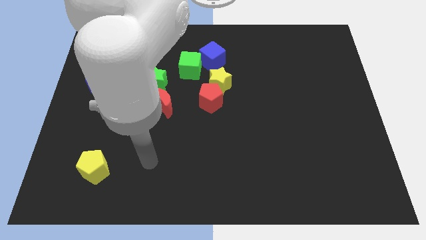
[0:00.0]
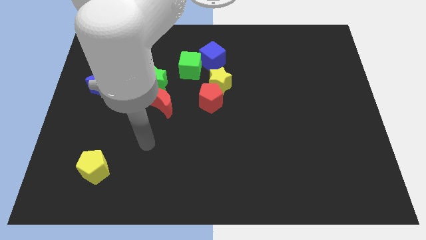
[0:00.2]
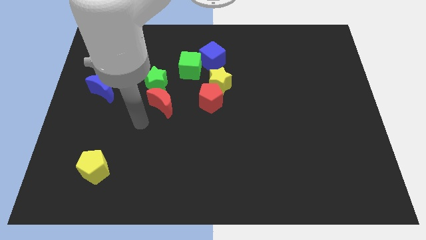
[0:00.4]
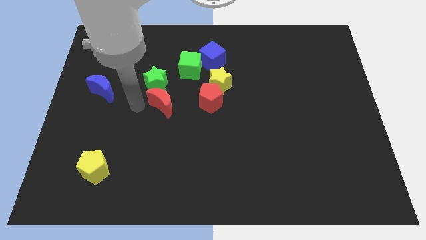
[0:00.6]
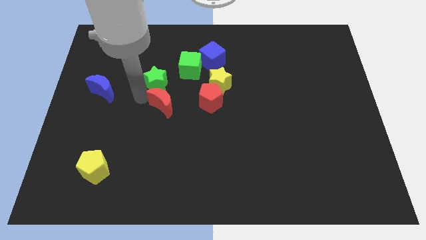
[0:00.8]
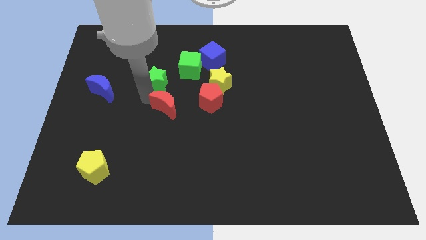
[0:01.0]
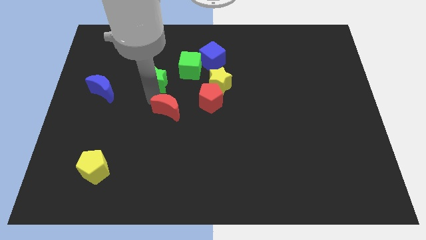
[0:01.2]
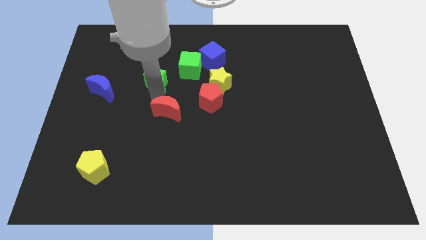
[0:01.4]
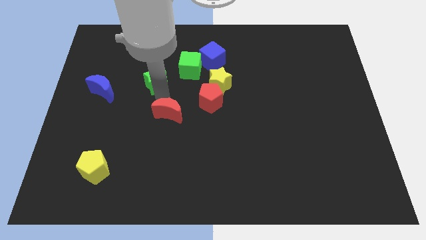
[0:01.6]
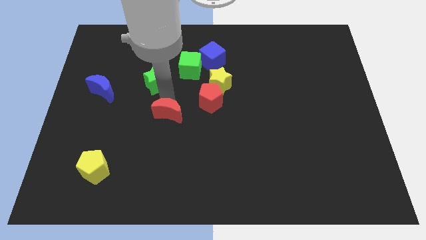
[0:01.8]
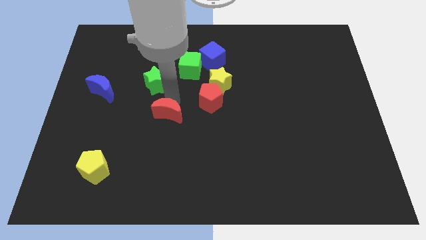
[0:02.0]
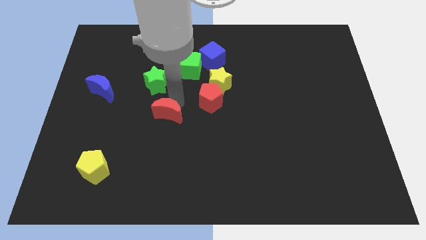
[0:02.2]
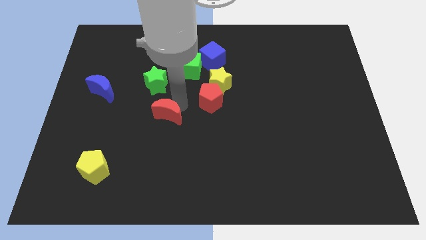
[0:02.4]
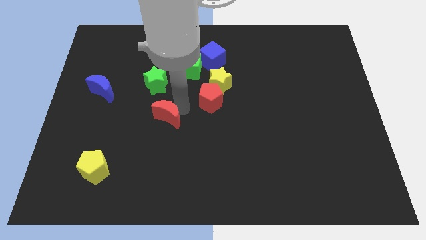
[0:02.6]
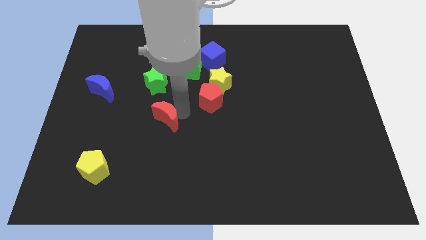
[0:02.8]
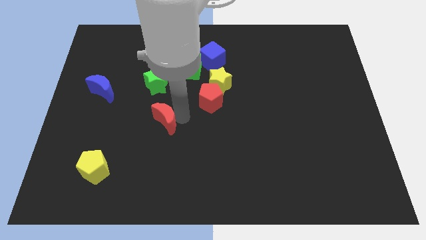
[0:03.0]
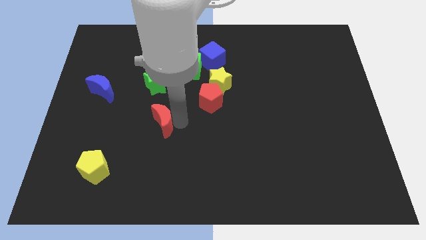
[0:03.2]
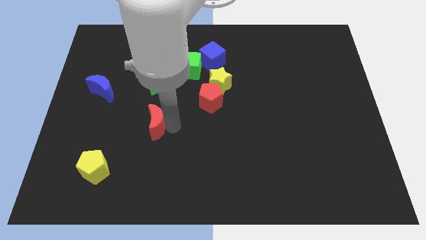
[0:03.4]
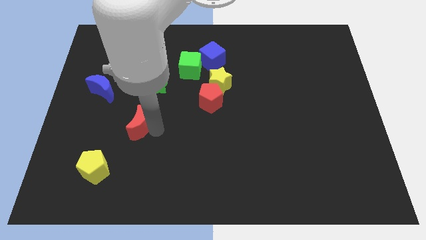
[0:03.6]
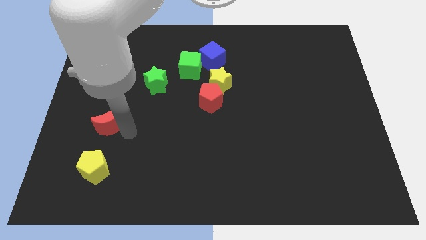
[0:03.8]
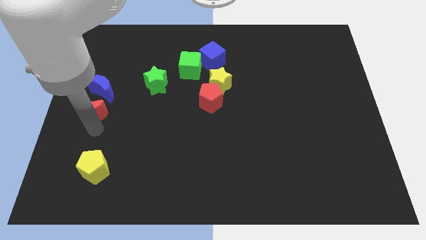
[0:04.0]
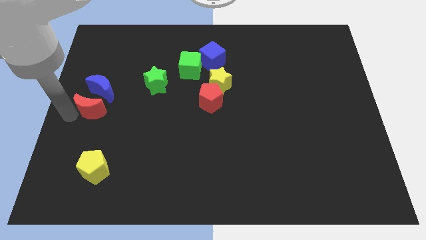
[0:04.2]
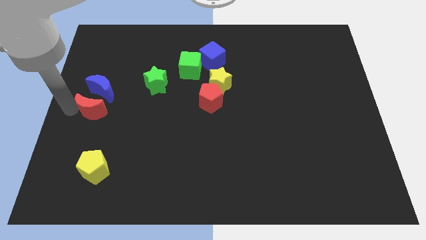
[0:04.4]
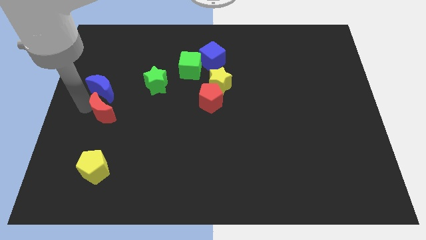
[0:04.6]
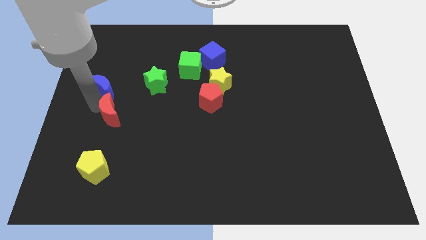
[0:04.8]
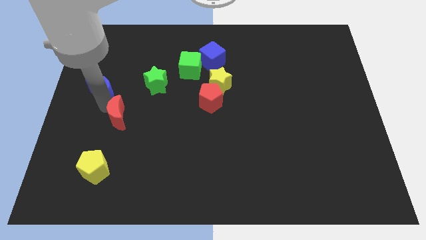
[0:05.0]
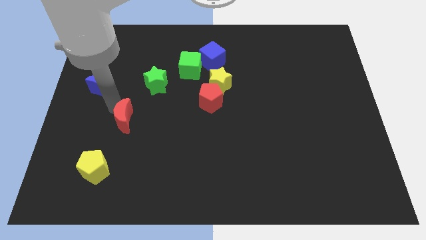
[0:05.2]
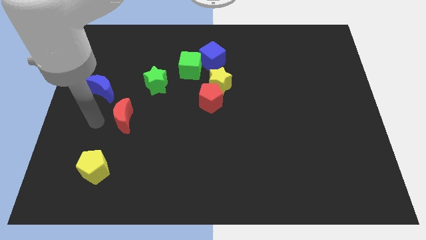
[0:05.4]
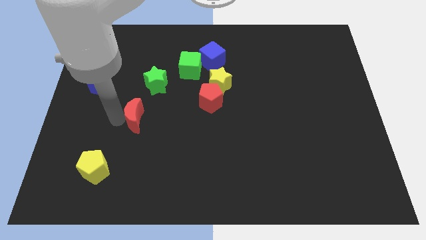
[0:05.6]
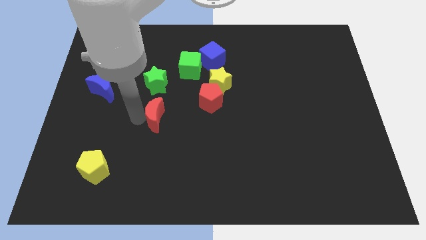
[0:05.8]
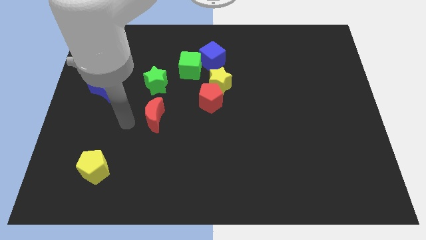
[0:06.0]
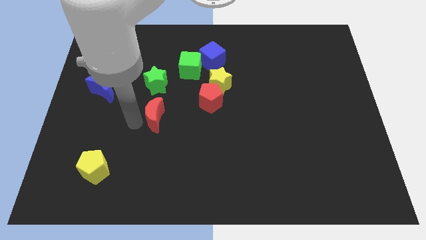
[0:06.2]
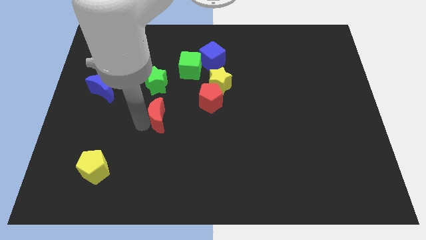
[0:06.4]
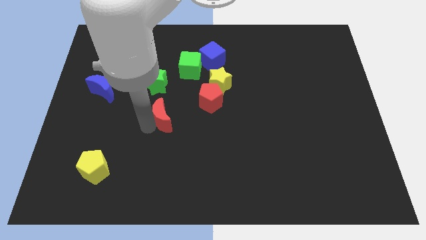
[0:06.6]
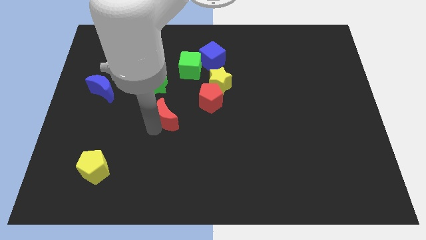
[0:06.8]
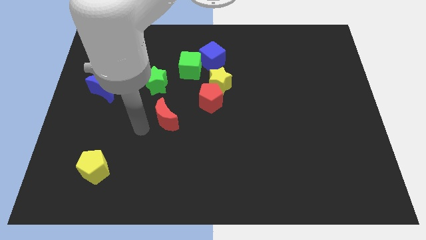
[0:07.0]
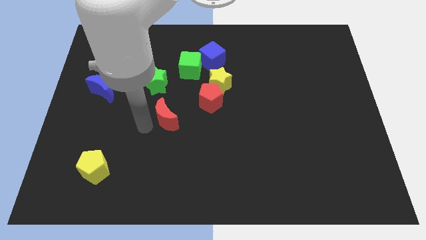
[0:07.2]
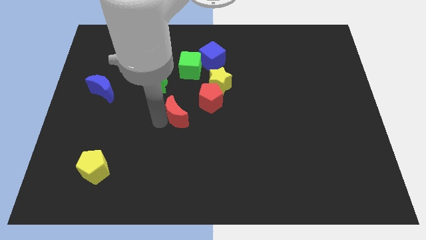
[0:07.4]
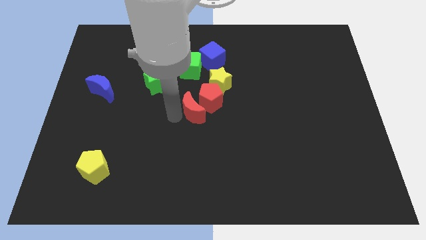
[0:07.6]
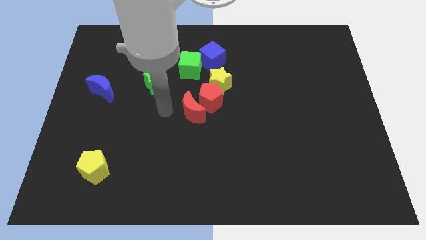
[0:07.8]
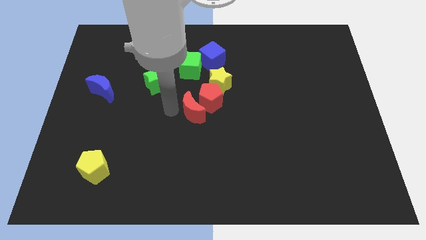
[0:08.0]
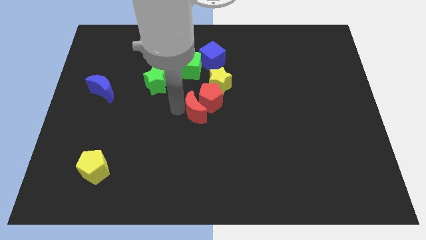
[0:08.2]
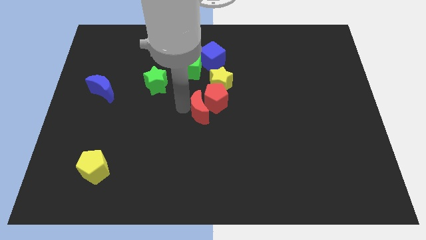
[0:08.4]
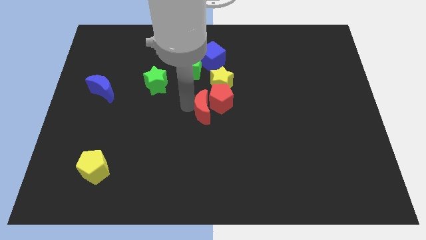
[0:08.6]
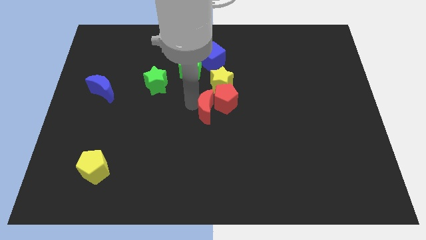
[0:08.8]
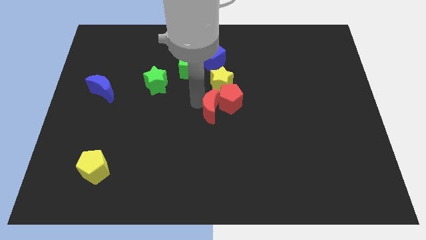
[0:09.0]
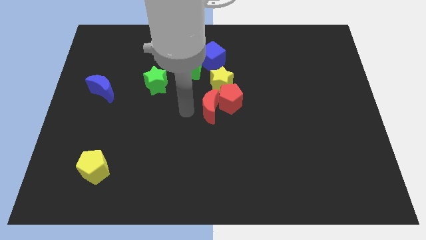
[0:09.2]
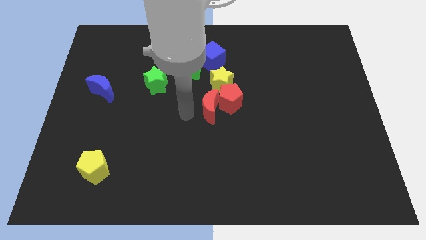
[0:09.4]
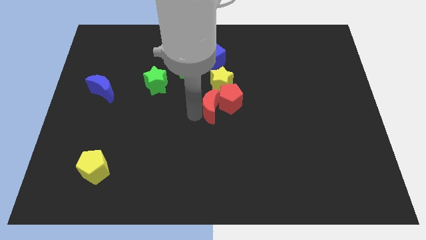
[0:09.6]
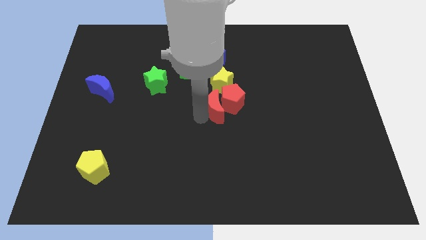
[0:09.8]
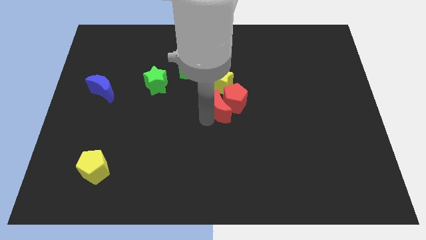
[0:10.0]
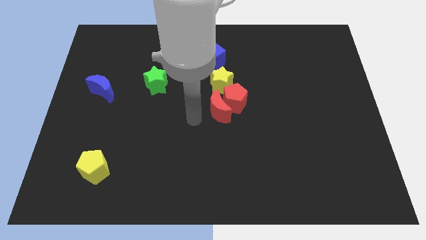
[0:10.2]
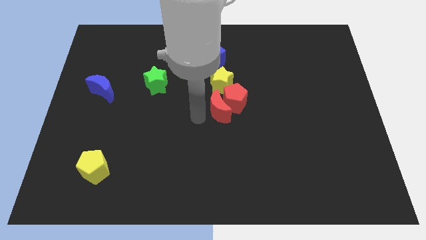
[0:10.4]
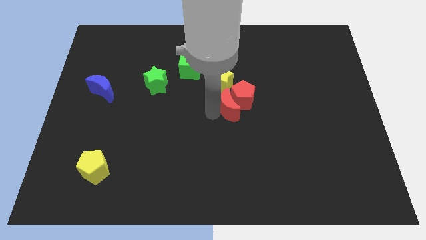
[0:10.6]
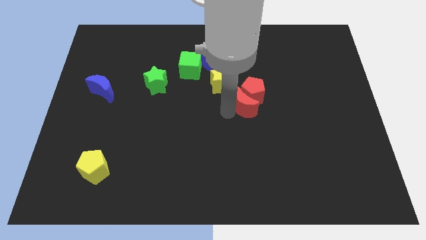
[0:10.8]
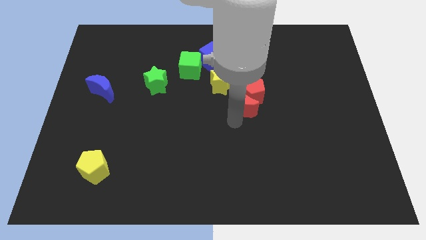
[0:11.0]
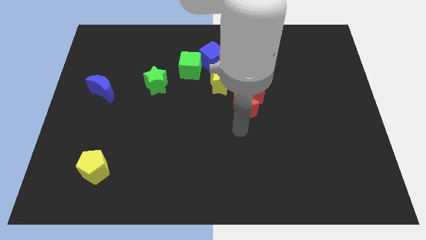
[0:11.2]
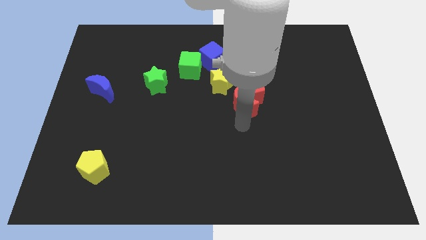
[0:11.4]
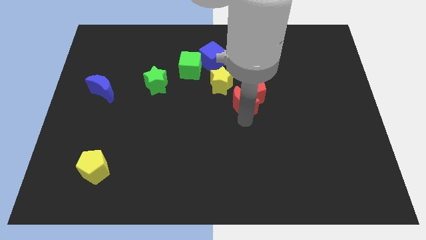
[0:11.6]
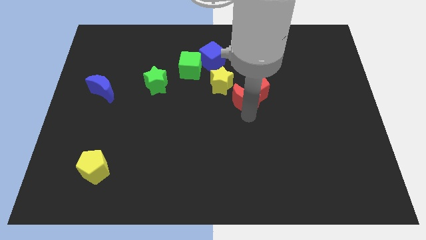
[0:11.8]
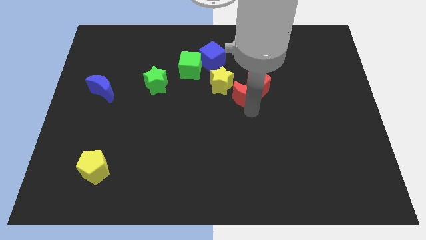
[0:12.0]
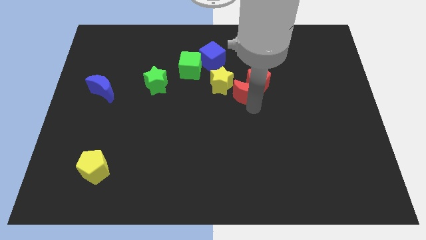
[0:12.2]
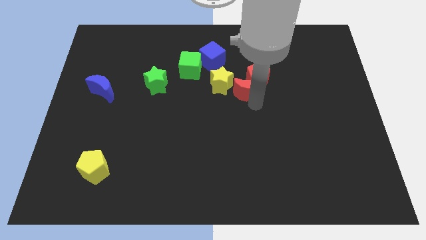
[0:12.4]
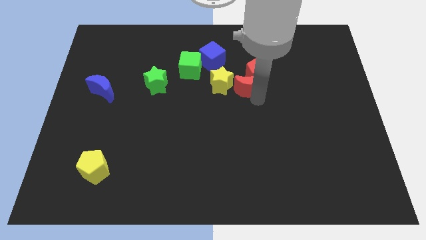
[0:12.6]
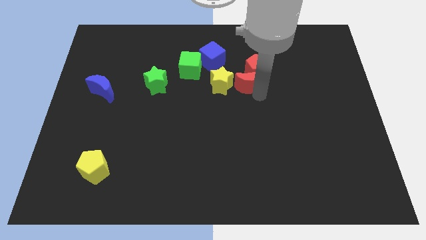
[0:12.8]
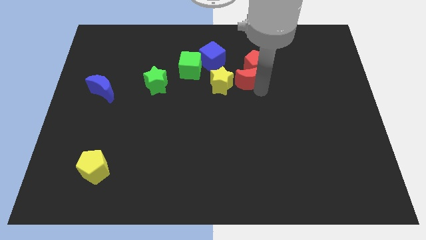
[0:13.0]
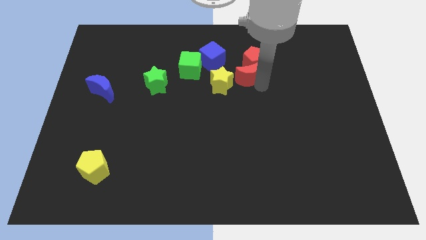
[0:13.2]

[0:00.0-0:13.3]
push the red moon just right of the green cube
